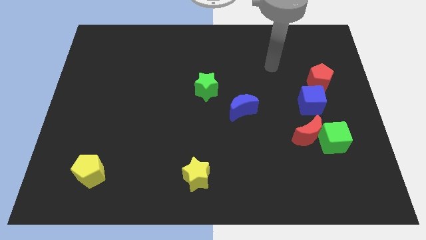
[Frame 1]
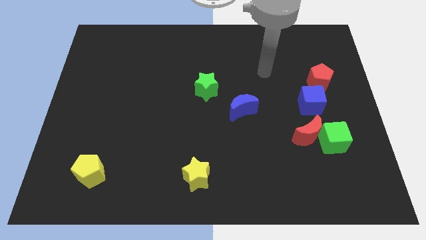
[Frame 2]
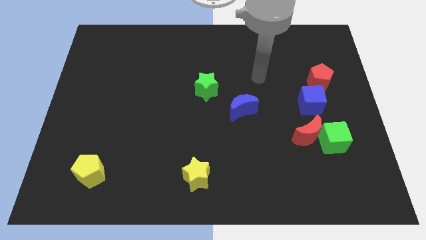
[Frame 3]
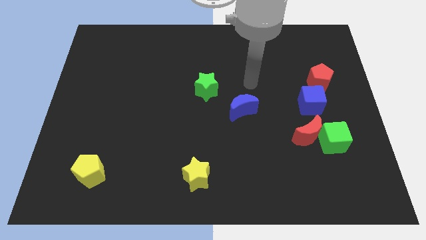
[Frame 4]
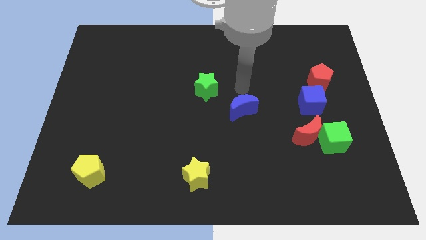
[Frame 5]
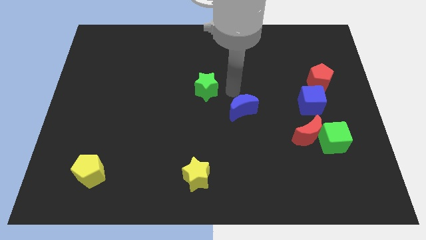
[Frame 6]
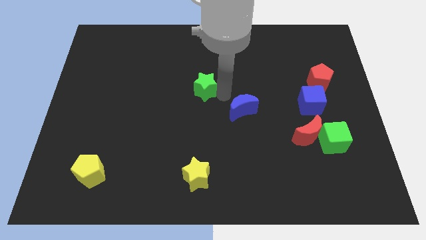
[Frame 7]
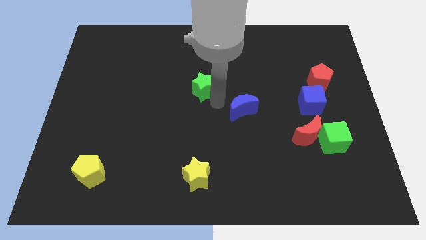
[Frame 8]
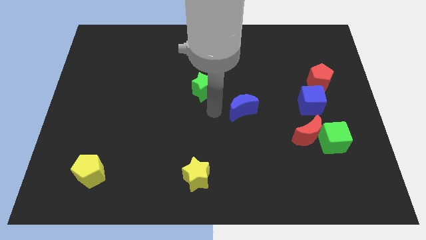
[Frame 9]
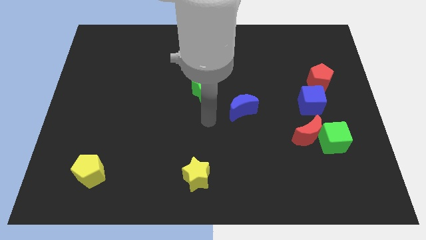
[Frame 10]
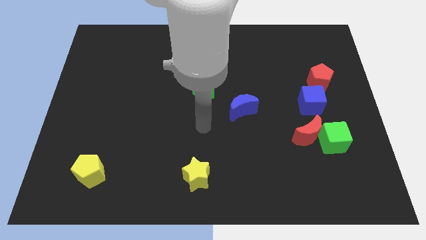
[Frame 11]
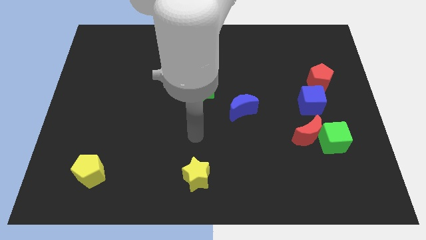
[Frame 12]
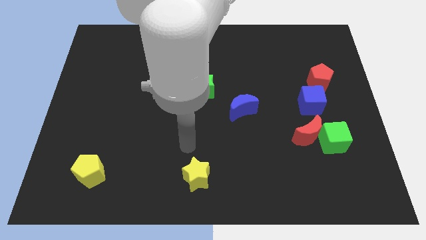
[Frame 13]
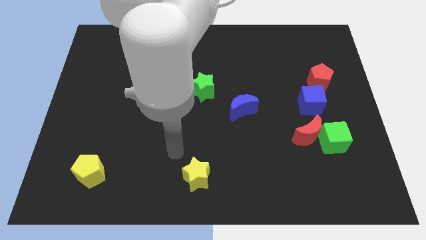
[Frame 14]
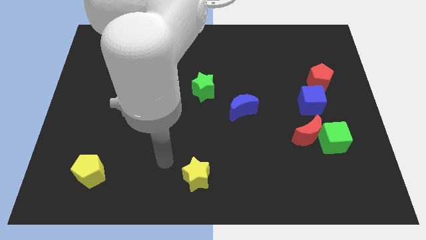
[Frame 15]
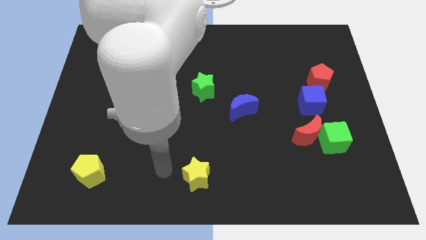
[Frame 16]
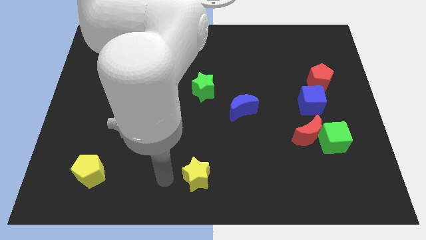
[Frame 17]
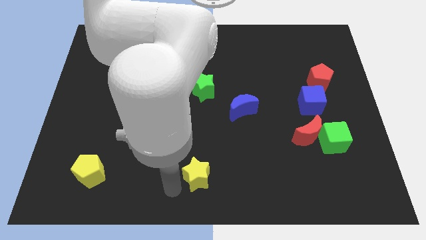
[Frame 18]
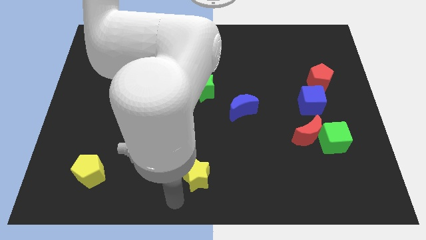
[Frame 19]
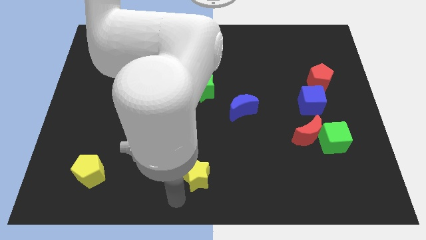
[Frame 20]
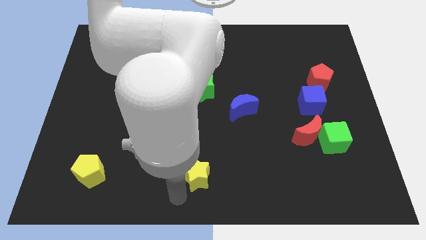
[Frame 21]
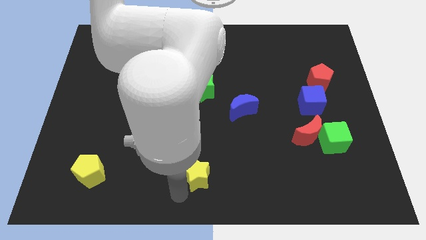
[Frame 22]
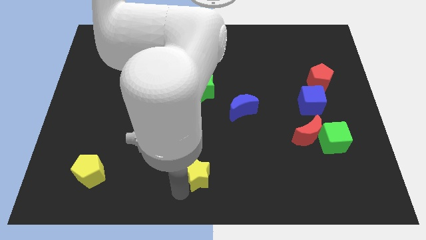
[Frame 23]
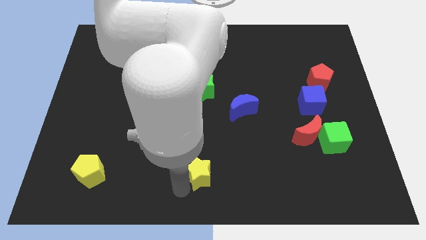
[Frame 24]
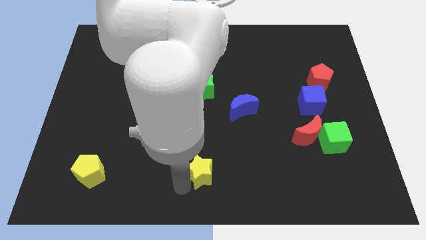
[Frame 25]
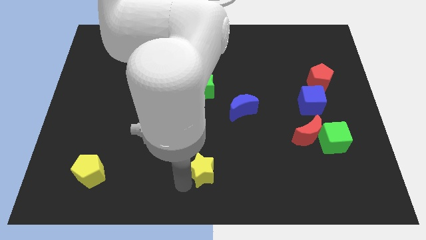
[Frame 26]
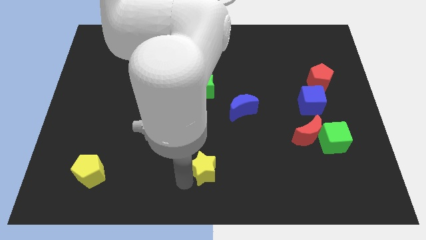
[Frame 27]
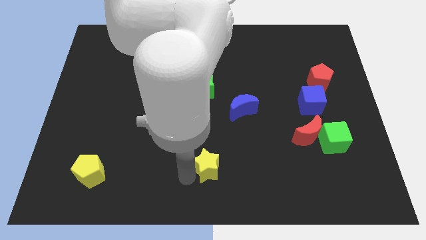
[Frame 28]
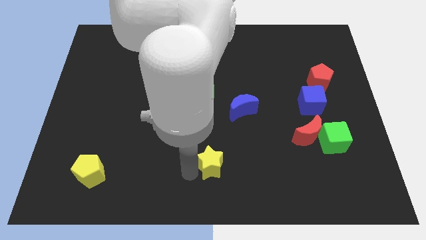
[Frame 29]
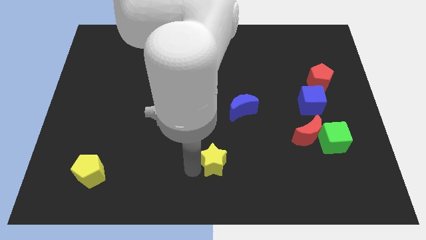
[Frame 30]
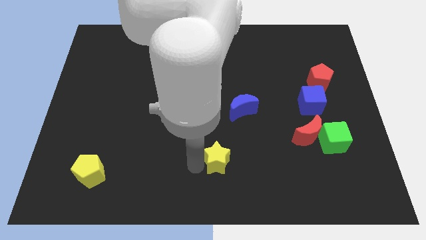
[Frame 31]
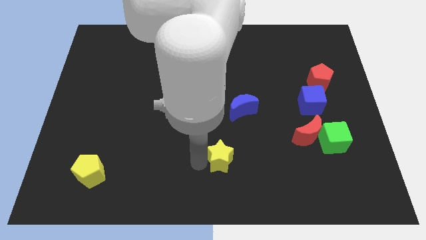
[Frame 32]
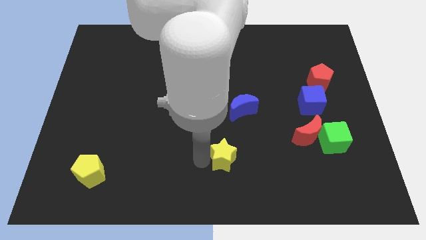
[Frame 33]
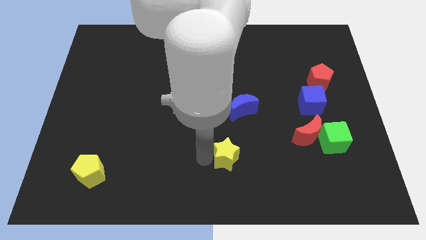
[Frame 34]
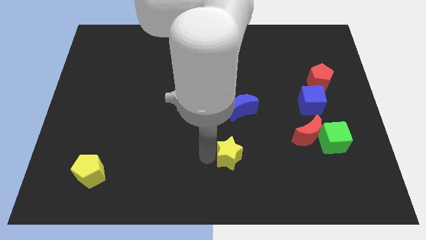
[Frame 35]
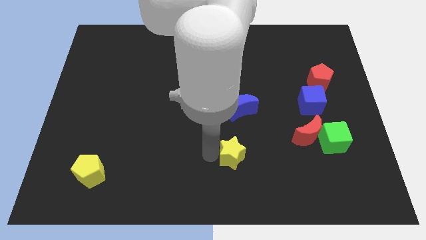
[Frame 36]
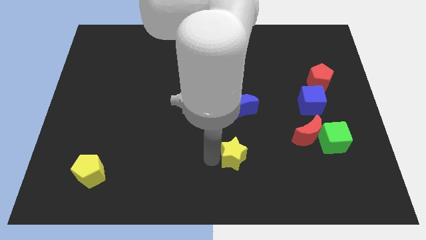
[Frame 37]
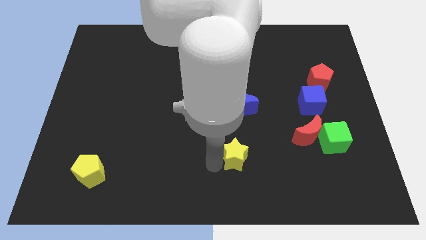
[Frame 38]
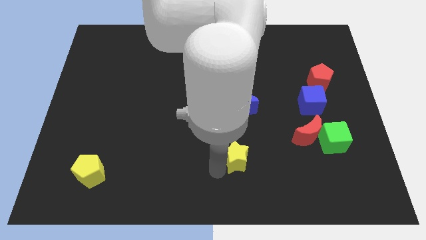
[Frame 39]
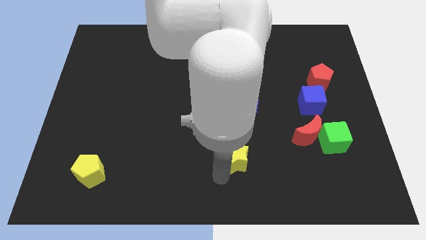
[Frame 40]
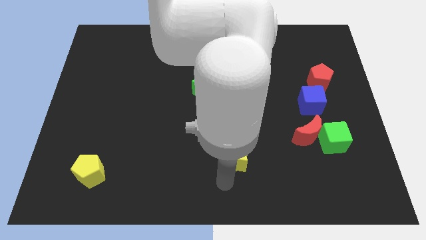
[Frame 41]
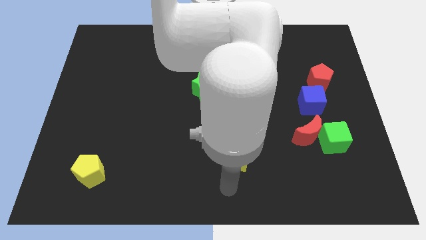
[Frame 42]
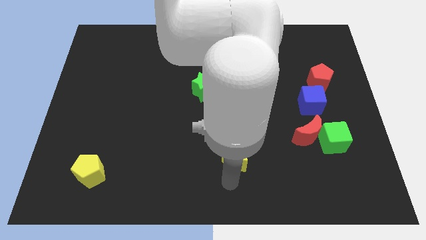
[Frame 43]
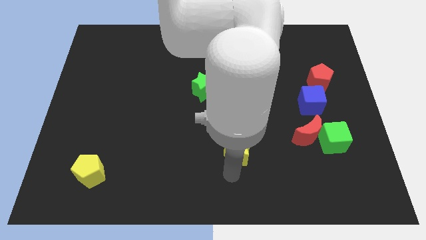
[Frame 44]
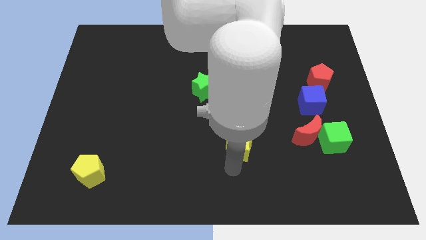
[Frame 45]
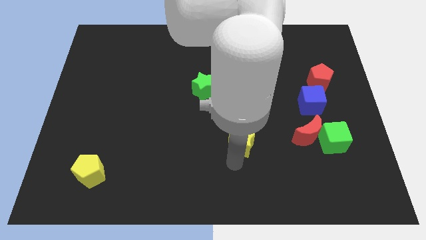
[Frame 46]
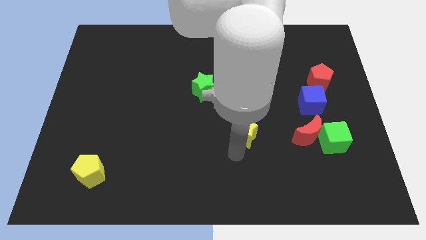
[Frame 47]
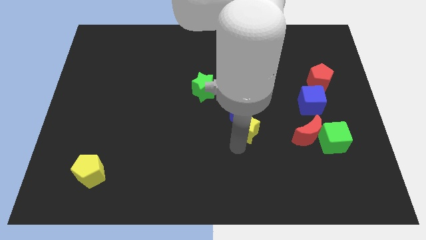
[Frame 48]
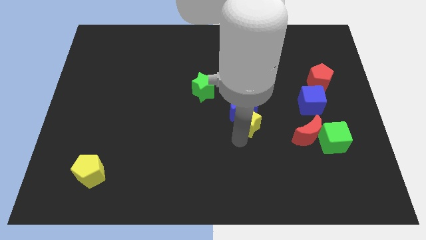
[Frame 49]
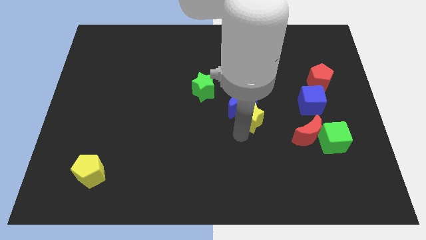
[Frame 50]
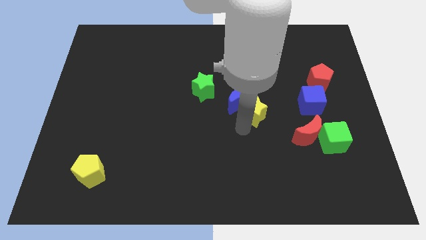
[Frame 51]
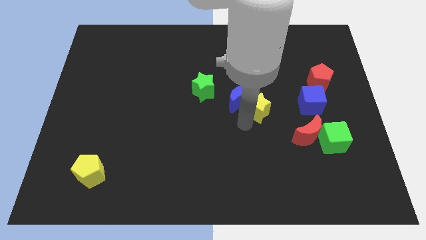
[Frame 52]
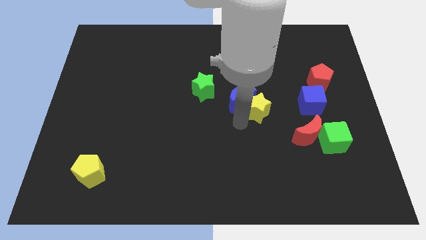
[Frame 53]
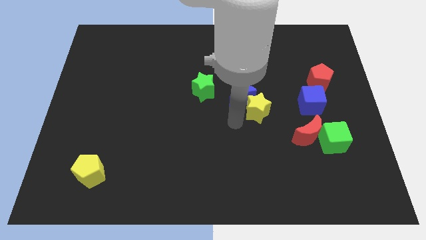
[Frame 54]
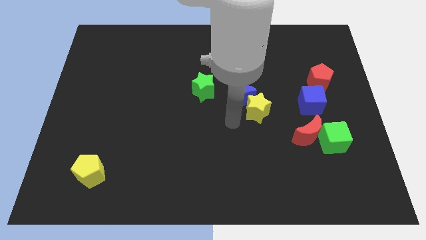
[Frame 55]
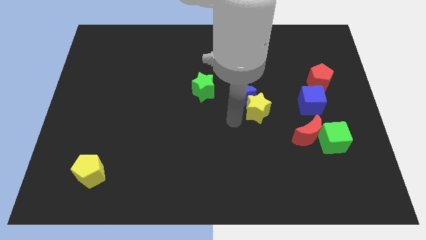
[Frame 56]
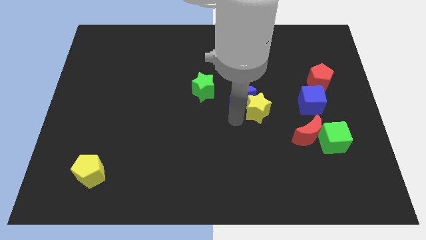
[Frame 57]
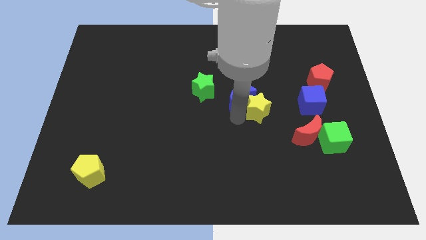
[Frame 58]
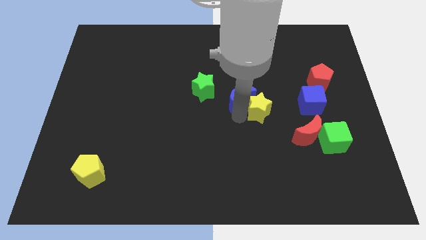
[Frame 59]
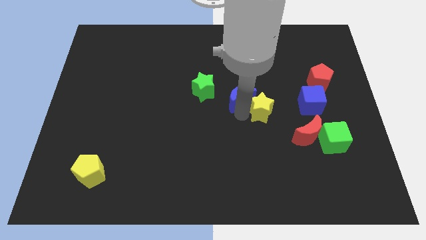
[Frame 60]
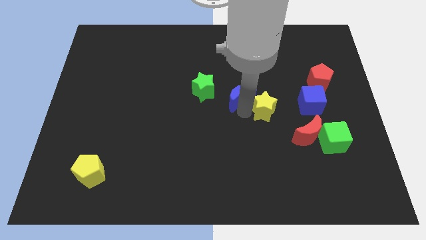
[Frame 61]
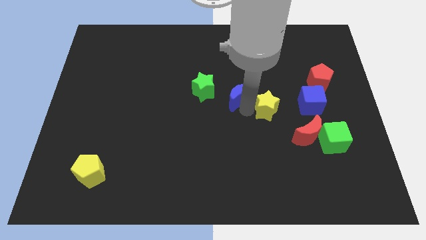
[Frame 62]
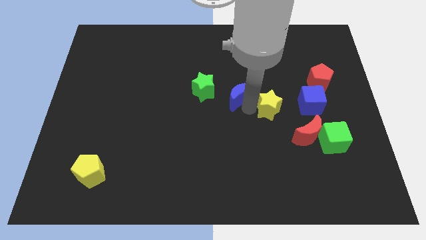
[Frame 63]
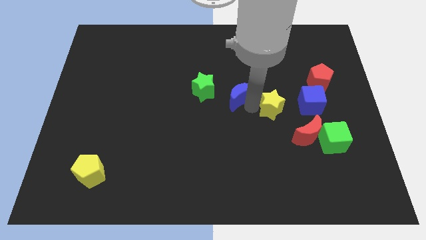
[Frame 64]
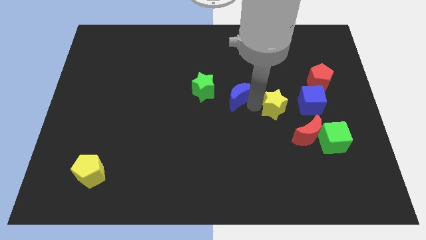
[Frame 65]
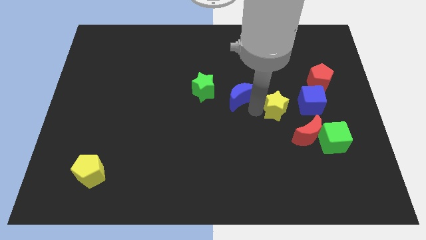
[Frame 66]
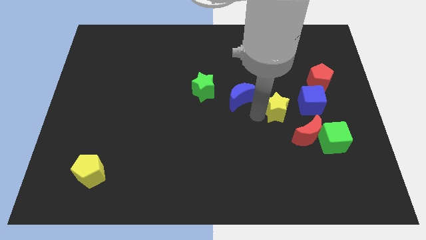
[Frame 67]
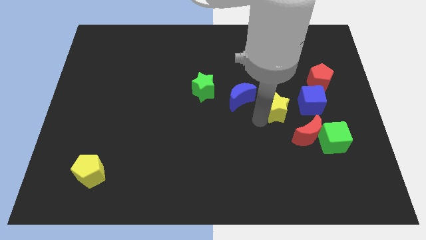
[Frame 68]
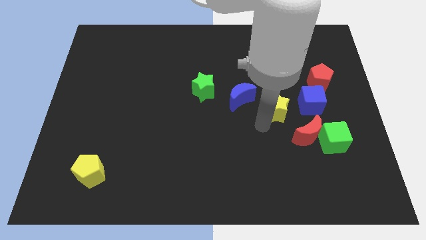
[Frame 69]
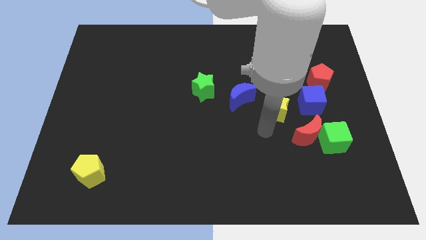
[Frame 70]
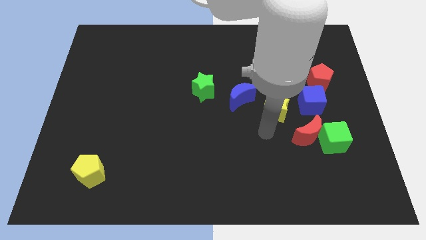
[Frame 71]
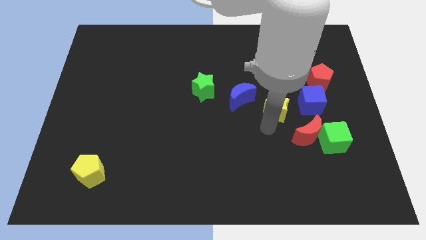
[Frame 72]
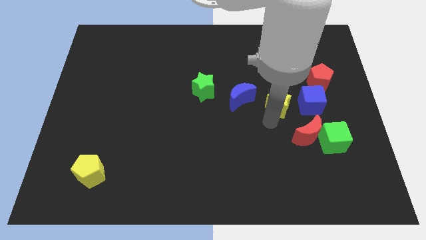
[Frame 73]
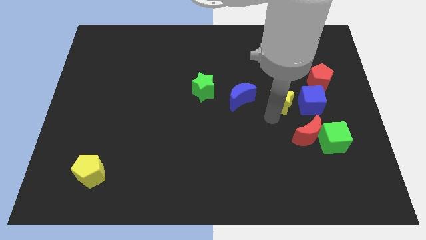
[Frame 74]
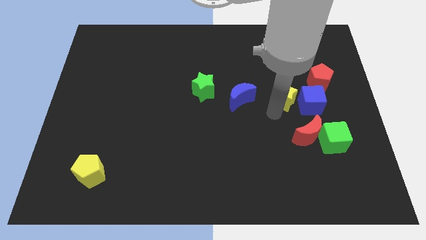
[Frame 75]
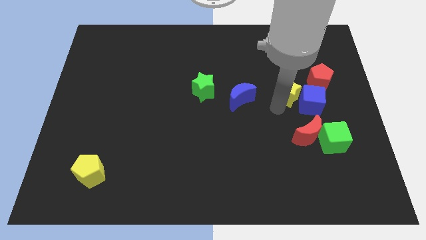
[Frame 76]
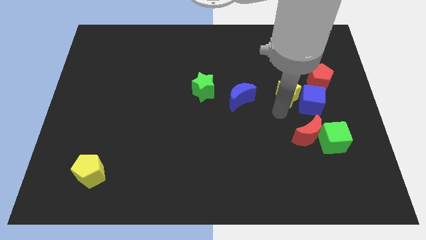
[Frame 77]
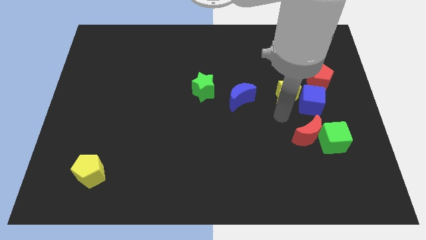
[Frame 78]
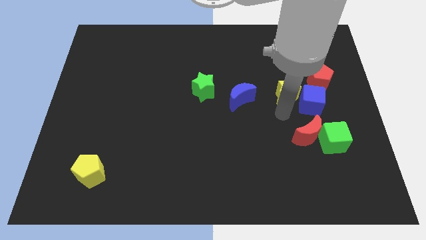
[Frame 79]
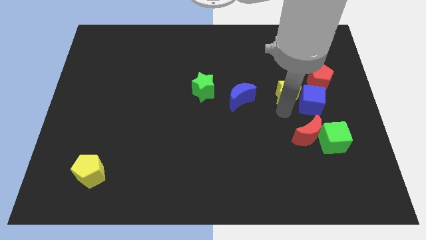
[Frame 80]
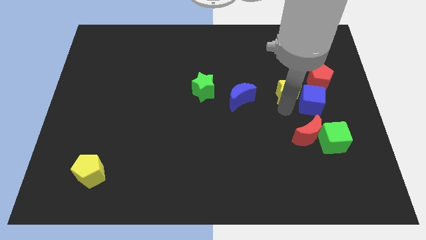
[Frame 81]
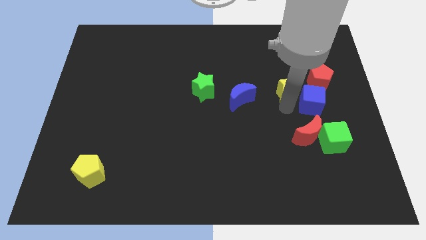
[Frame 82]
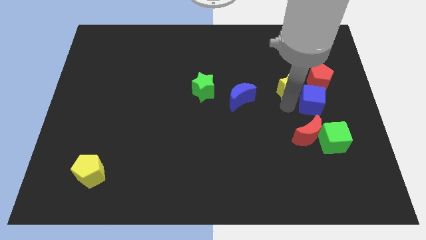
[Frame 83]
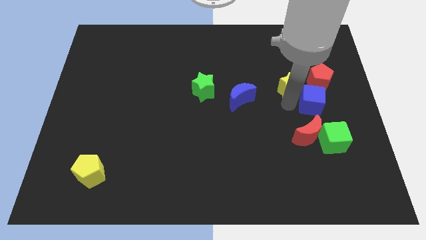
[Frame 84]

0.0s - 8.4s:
slide the yellow star to the top of the blue cube
